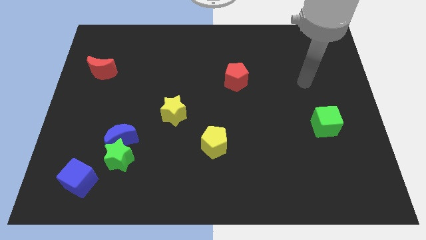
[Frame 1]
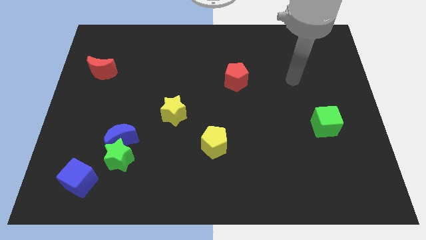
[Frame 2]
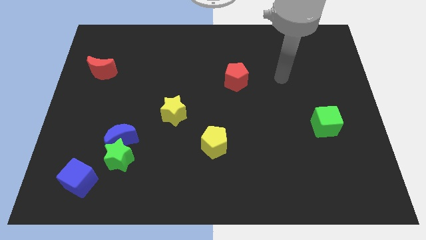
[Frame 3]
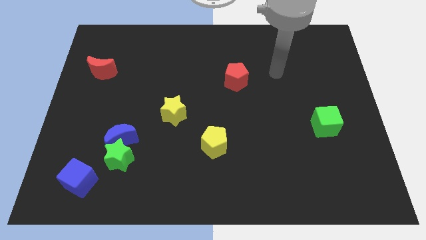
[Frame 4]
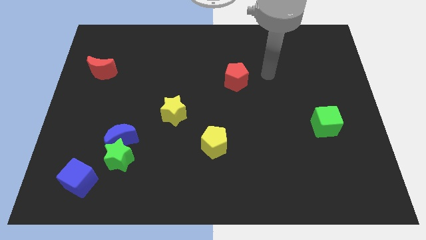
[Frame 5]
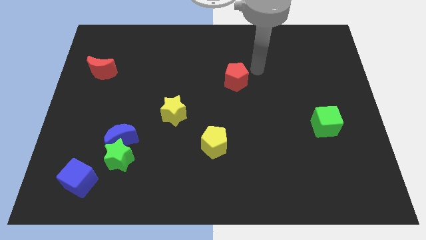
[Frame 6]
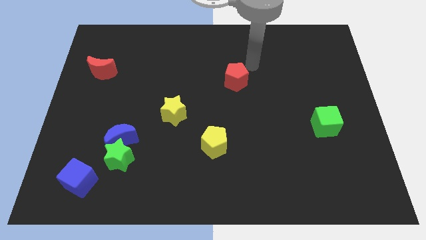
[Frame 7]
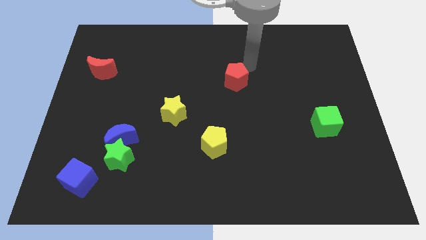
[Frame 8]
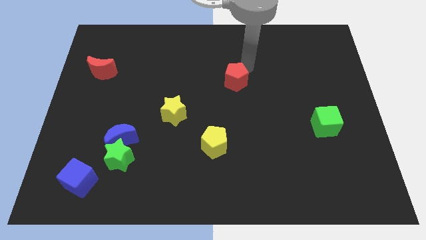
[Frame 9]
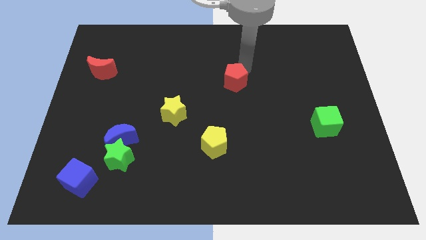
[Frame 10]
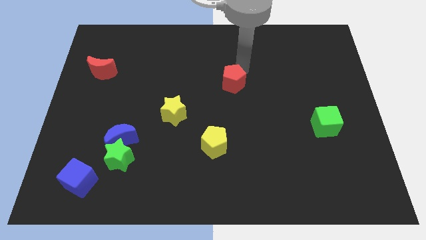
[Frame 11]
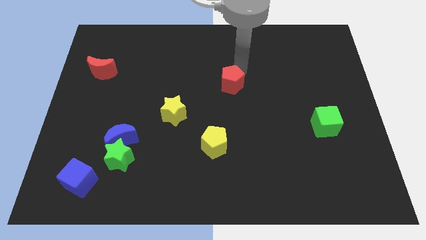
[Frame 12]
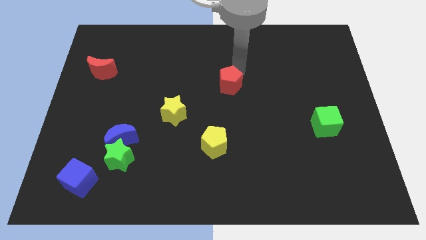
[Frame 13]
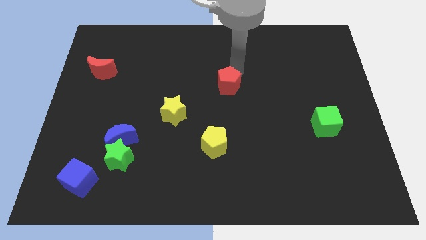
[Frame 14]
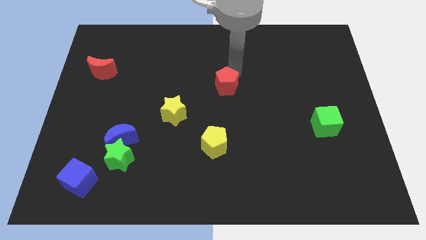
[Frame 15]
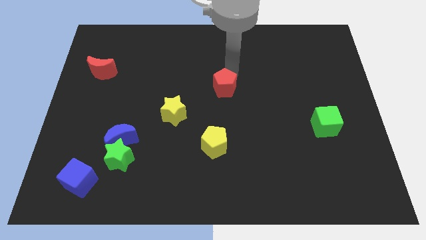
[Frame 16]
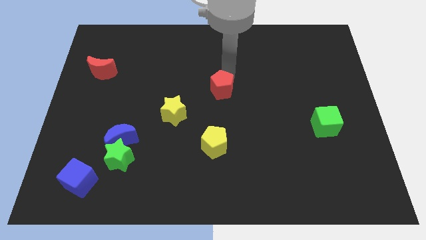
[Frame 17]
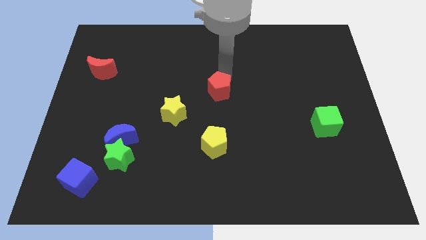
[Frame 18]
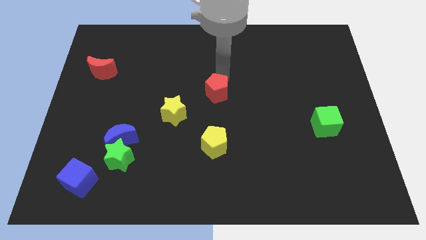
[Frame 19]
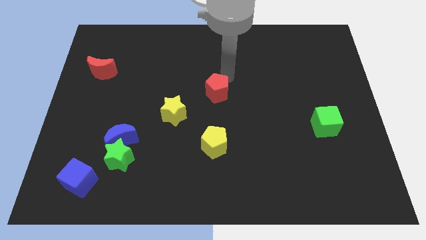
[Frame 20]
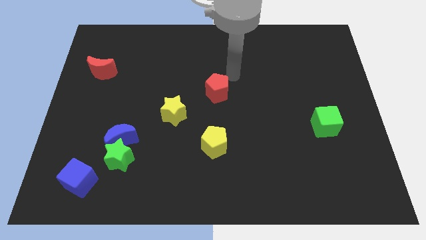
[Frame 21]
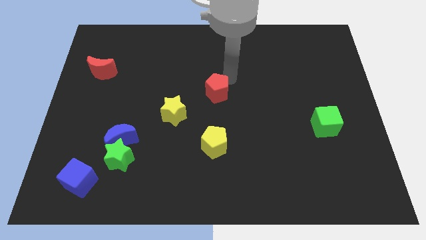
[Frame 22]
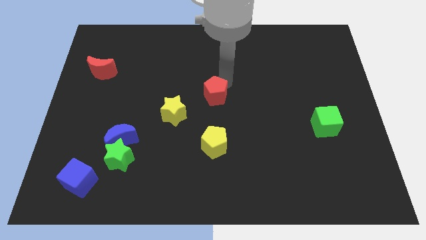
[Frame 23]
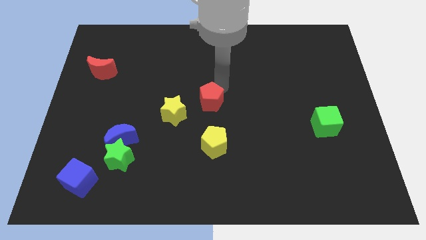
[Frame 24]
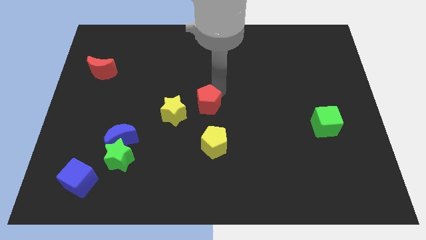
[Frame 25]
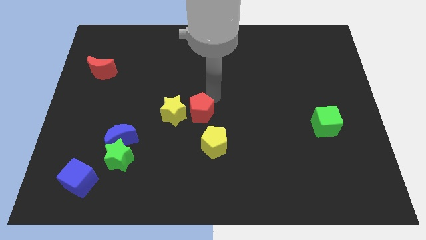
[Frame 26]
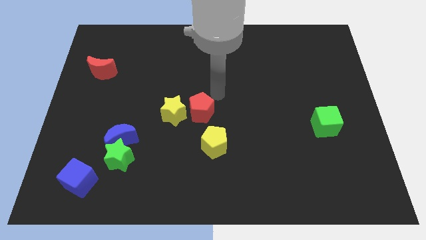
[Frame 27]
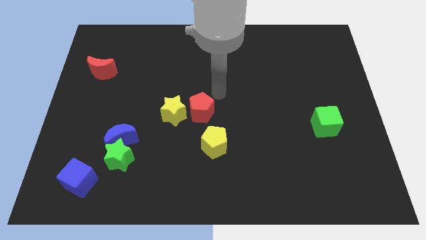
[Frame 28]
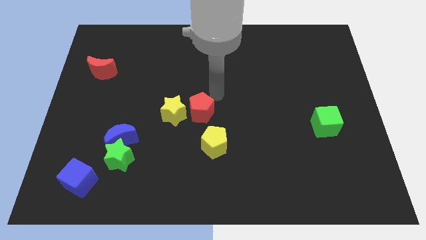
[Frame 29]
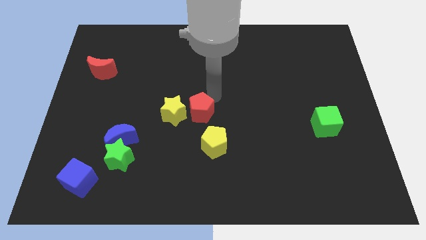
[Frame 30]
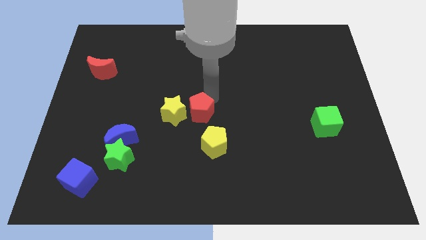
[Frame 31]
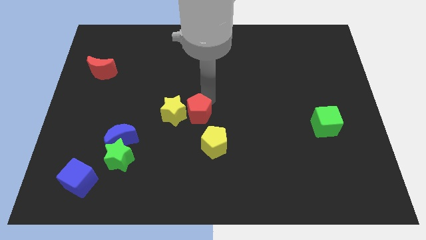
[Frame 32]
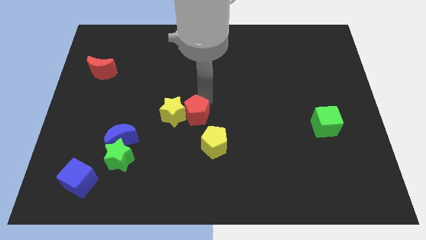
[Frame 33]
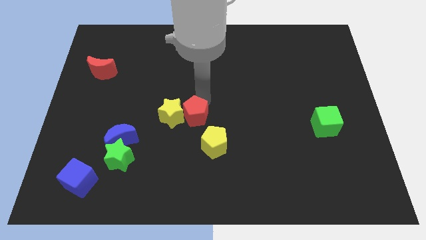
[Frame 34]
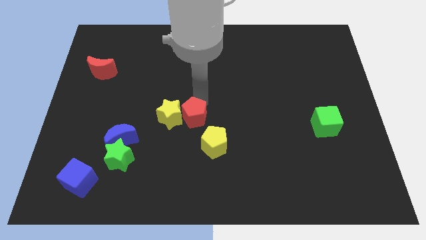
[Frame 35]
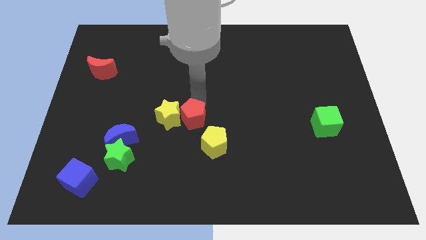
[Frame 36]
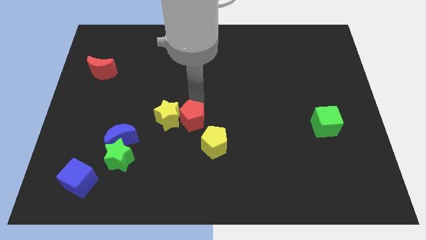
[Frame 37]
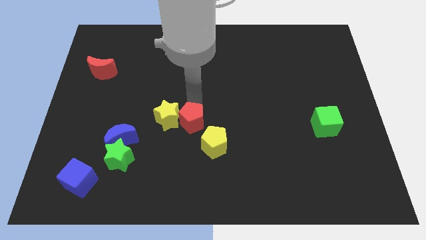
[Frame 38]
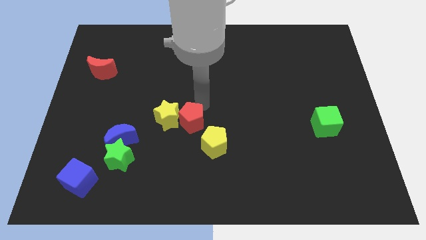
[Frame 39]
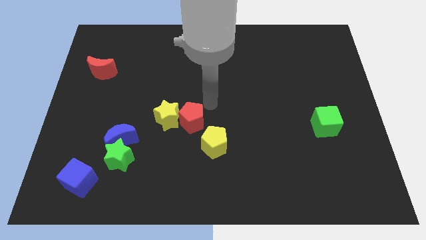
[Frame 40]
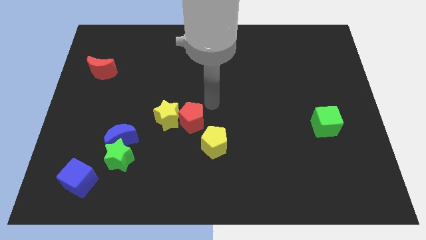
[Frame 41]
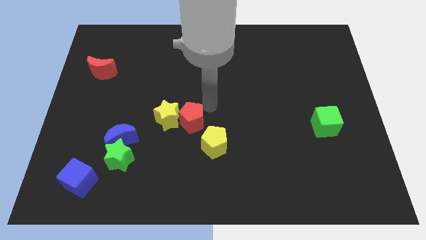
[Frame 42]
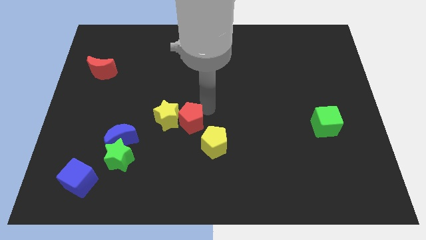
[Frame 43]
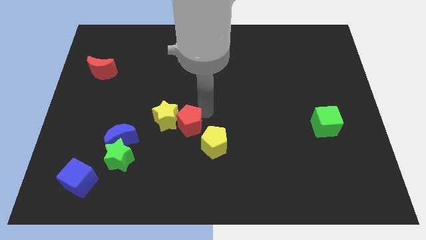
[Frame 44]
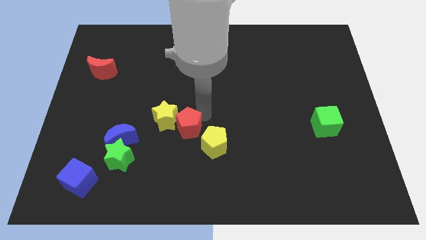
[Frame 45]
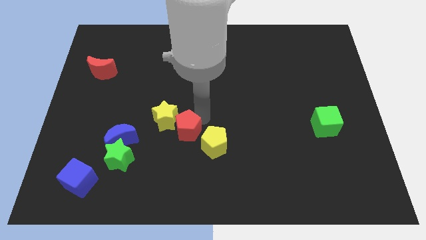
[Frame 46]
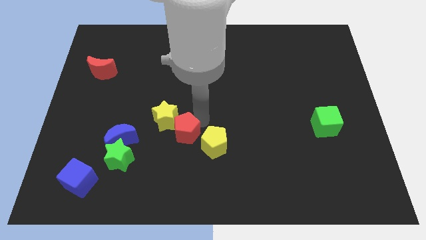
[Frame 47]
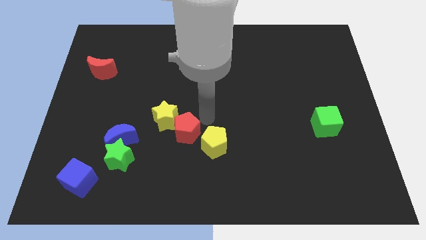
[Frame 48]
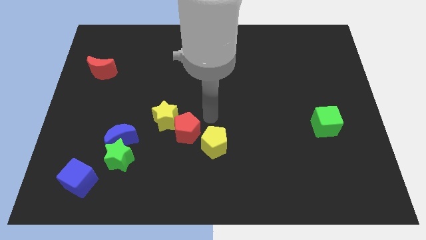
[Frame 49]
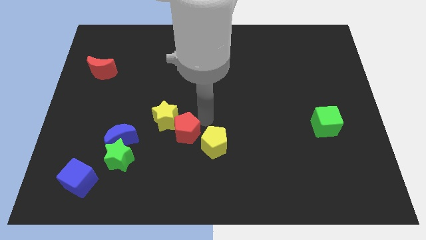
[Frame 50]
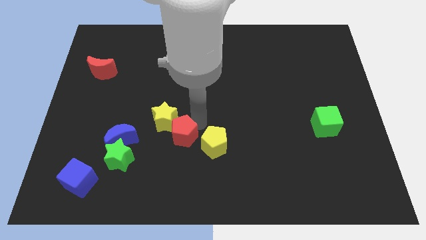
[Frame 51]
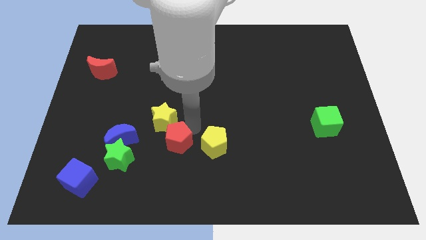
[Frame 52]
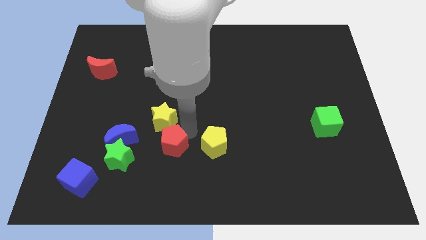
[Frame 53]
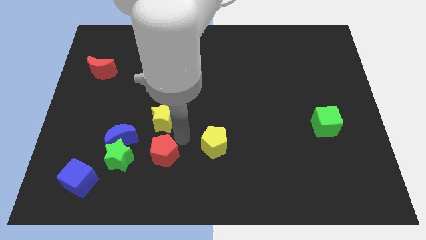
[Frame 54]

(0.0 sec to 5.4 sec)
push the red pentagon diagonally down and to the right of the blue moon

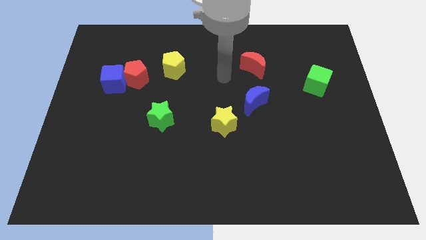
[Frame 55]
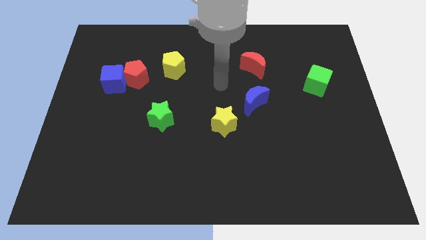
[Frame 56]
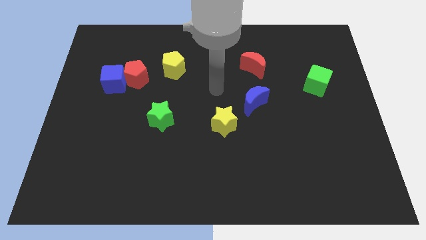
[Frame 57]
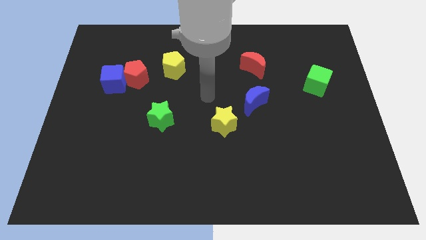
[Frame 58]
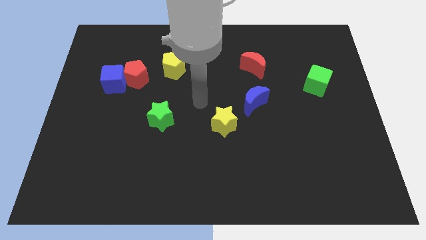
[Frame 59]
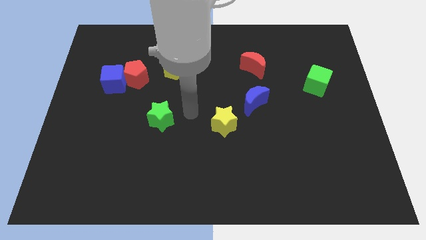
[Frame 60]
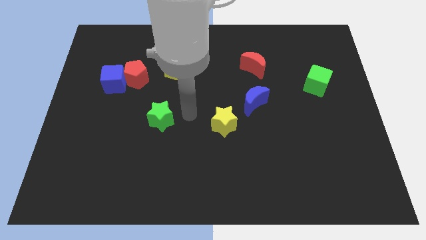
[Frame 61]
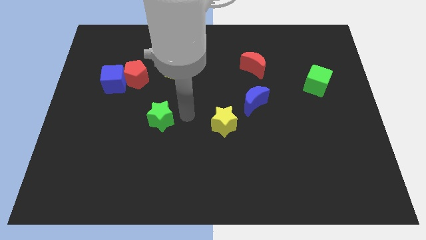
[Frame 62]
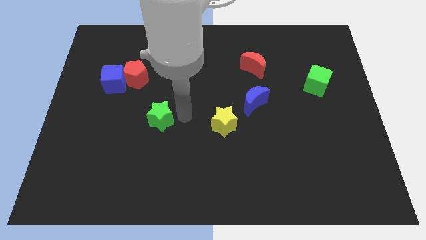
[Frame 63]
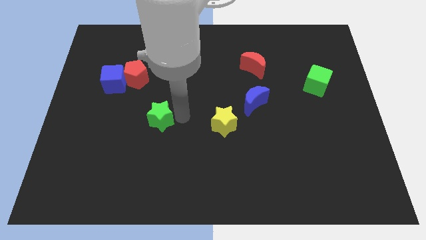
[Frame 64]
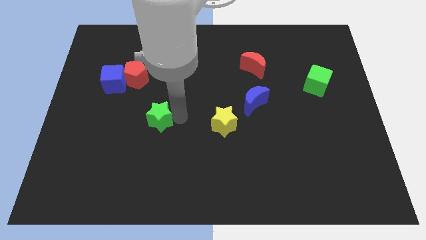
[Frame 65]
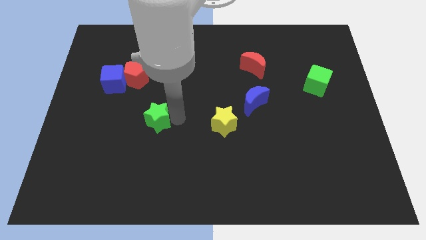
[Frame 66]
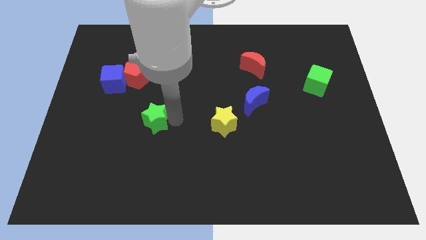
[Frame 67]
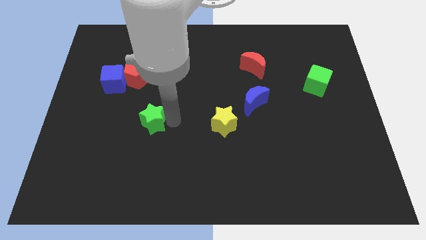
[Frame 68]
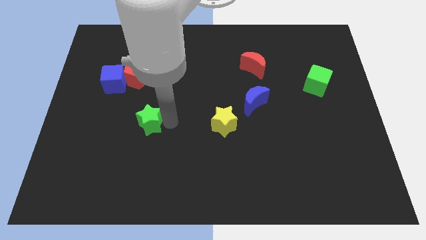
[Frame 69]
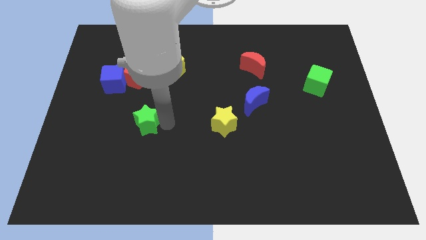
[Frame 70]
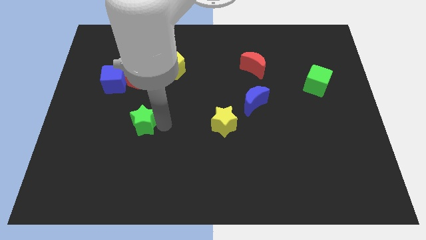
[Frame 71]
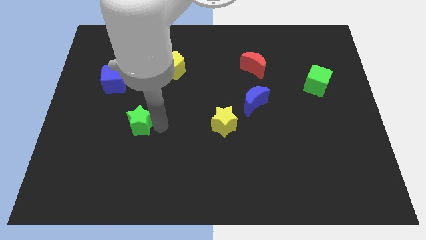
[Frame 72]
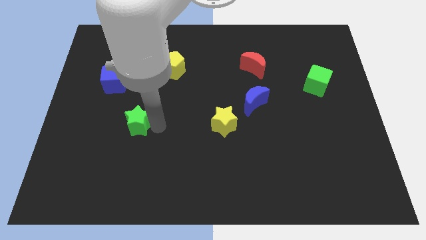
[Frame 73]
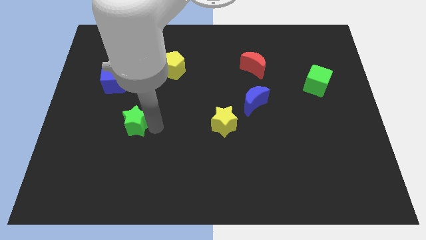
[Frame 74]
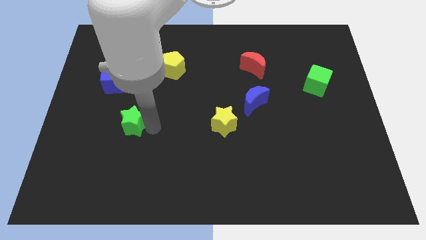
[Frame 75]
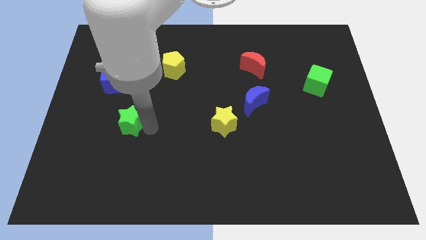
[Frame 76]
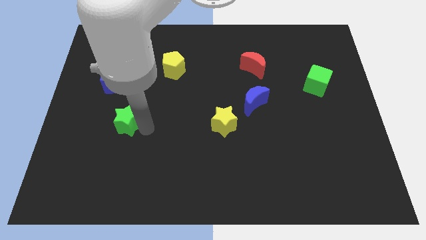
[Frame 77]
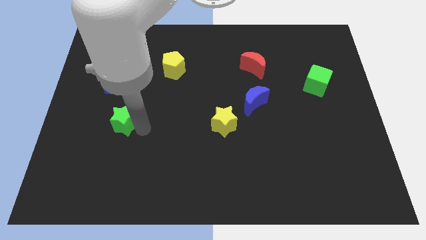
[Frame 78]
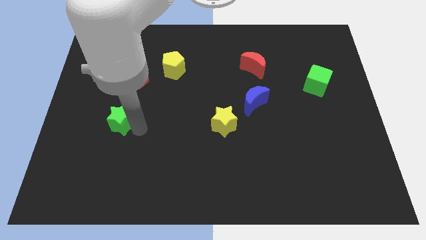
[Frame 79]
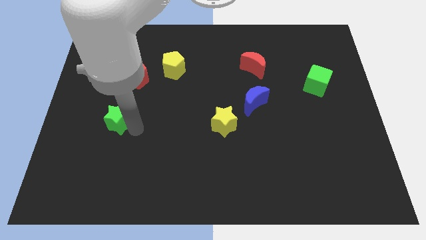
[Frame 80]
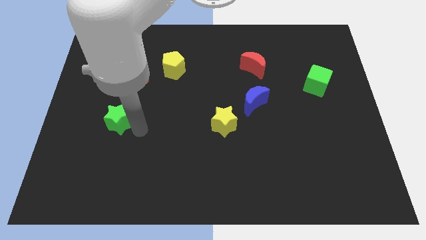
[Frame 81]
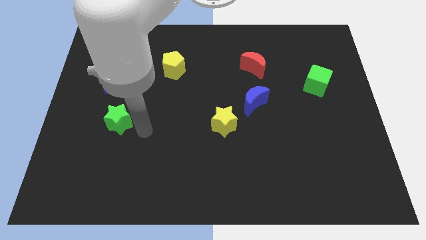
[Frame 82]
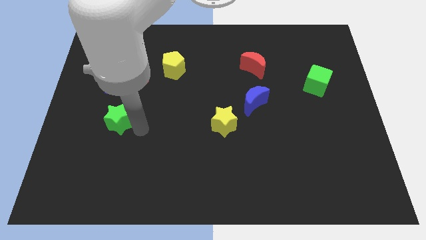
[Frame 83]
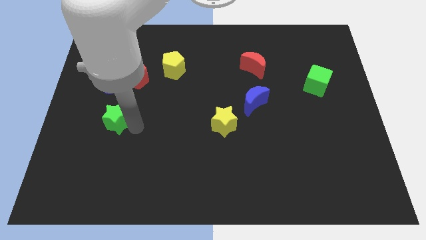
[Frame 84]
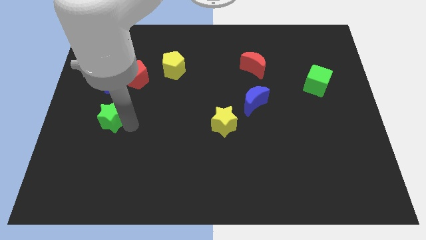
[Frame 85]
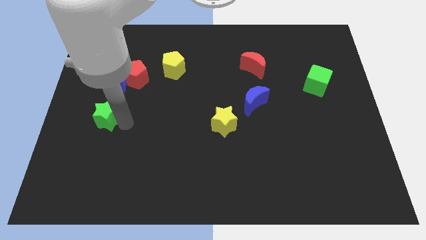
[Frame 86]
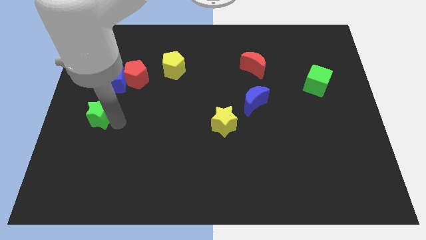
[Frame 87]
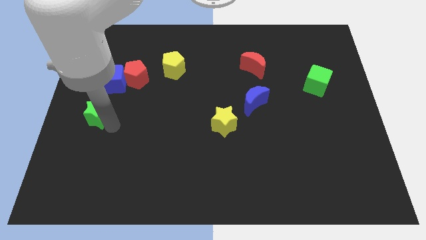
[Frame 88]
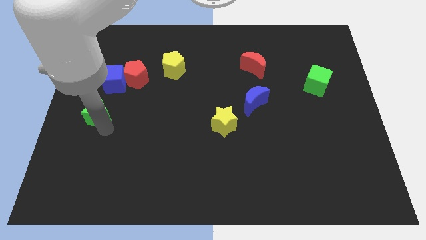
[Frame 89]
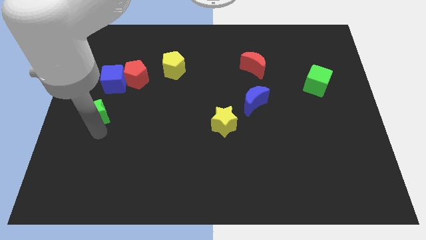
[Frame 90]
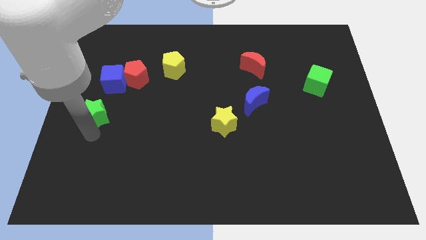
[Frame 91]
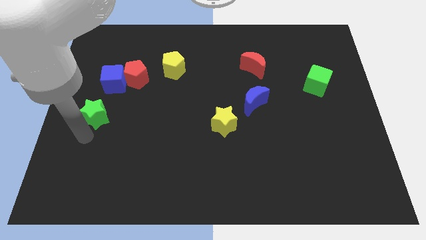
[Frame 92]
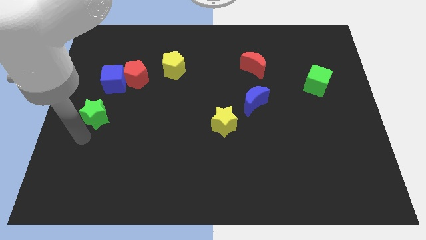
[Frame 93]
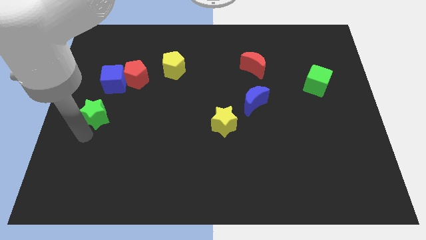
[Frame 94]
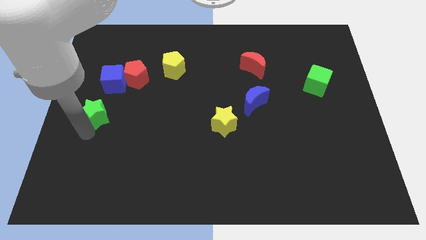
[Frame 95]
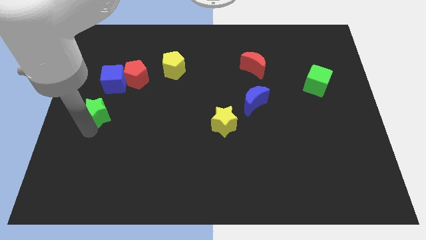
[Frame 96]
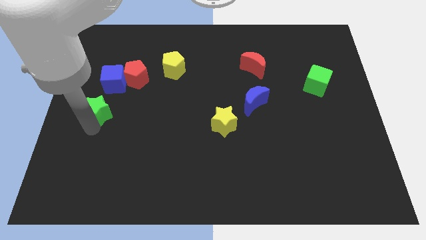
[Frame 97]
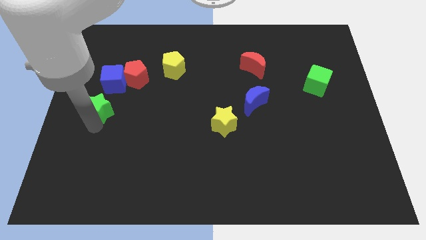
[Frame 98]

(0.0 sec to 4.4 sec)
put the green star diagonally down and to the left of the red pentagon
